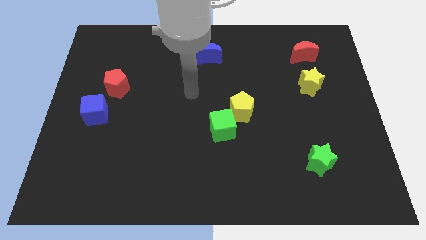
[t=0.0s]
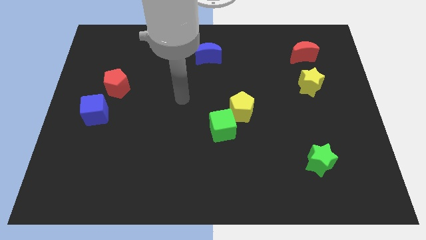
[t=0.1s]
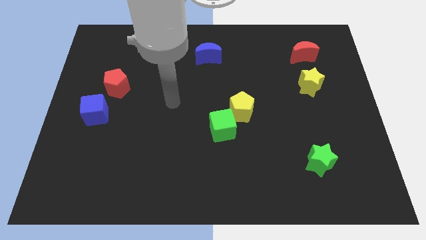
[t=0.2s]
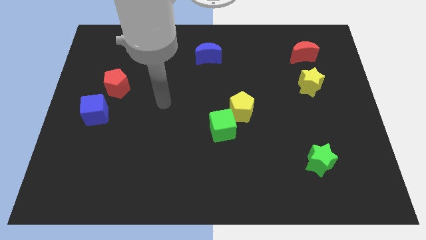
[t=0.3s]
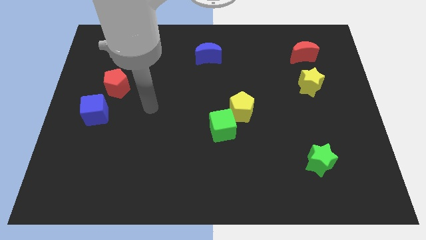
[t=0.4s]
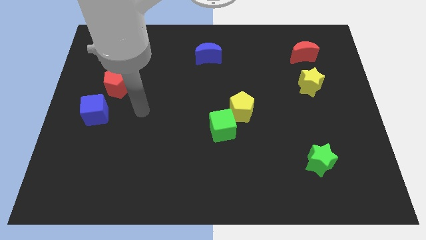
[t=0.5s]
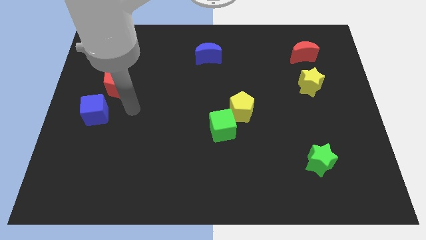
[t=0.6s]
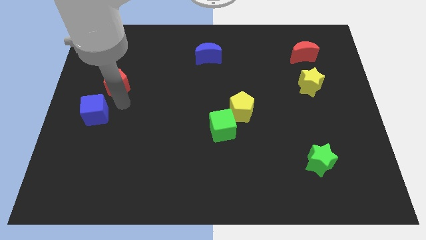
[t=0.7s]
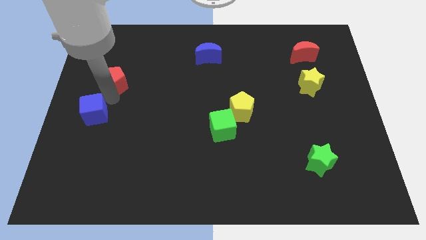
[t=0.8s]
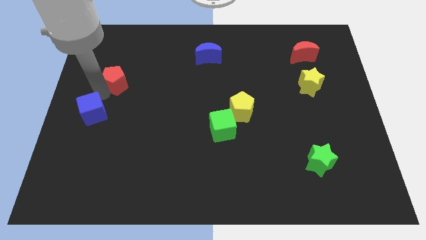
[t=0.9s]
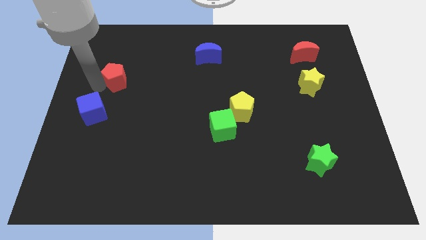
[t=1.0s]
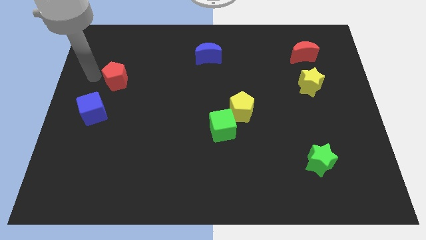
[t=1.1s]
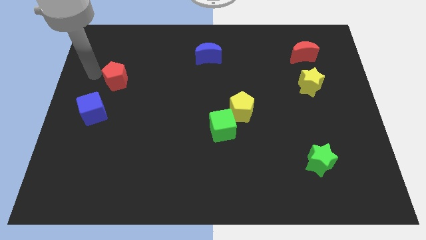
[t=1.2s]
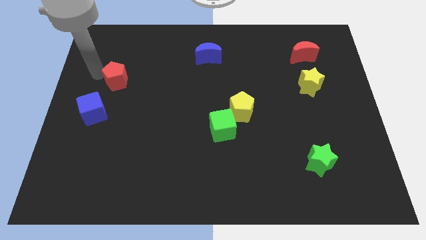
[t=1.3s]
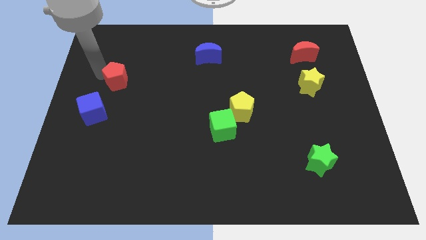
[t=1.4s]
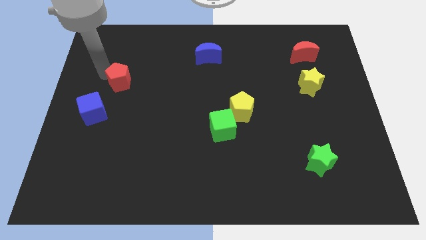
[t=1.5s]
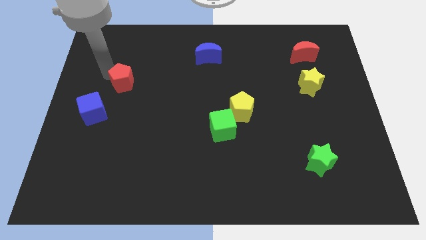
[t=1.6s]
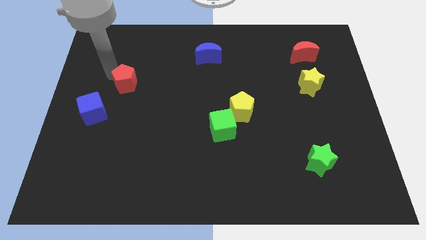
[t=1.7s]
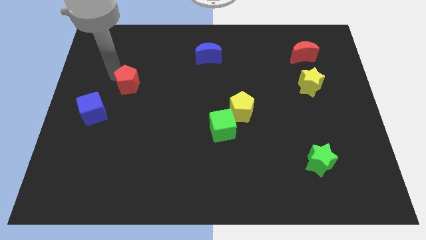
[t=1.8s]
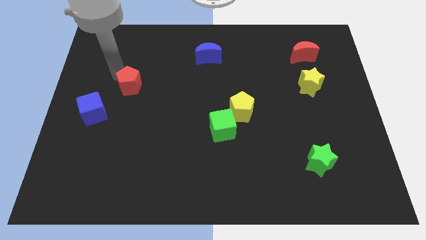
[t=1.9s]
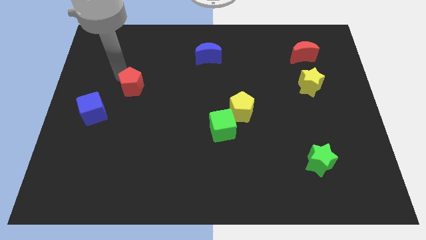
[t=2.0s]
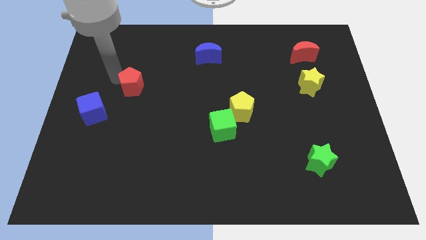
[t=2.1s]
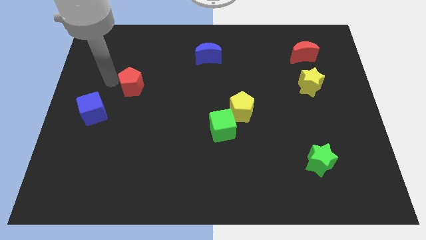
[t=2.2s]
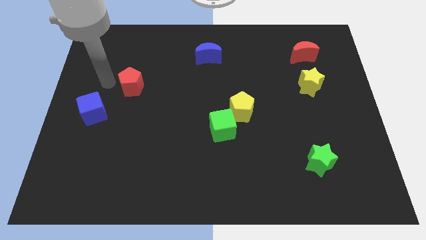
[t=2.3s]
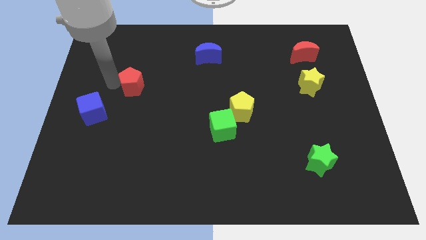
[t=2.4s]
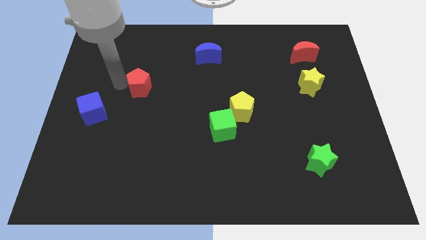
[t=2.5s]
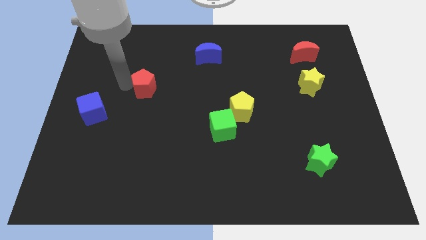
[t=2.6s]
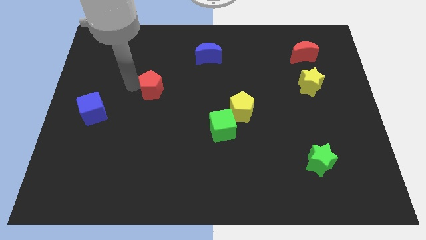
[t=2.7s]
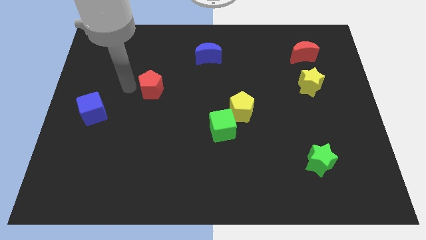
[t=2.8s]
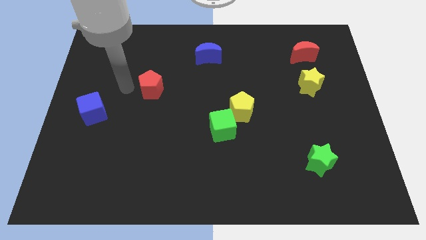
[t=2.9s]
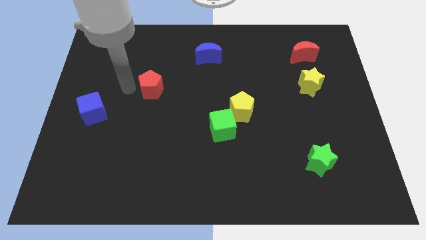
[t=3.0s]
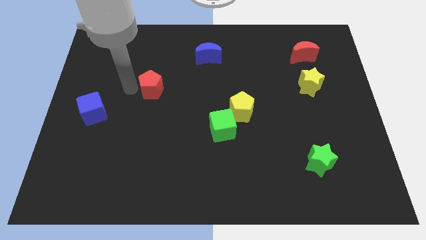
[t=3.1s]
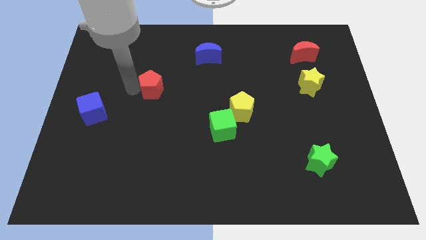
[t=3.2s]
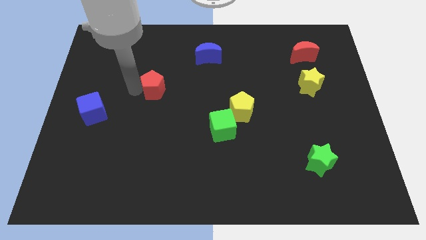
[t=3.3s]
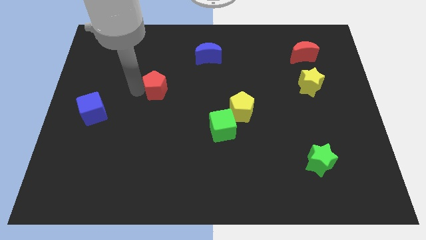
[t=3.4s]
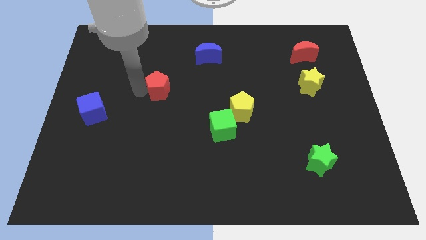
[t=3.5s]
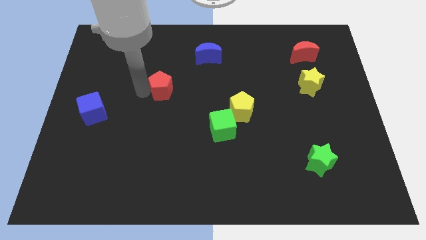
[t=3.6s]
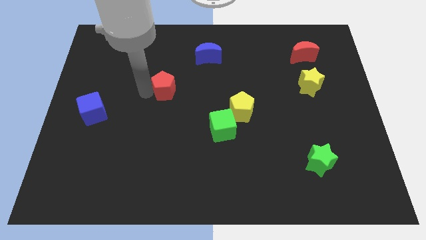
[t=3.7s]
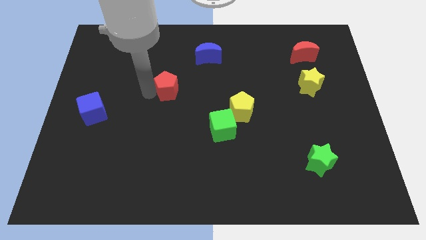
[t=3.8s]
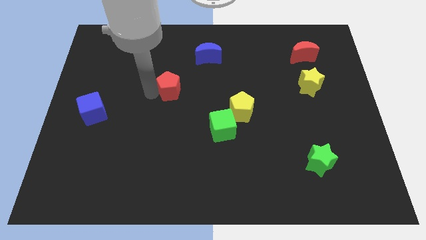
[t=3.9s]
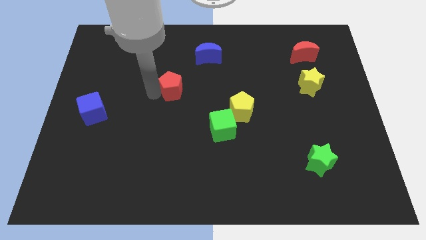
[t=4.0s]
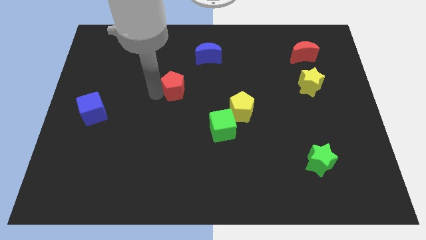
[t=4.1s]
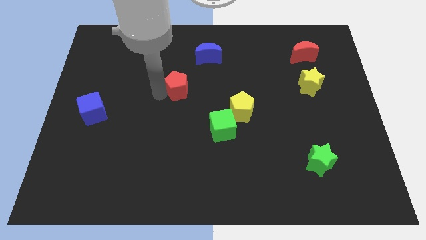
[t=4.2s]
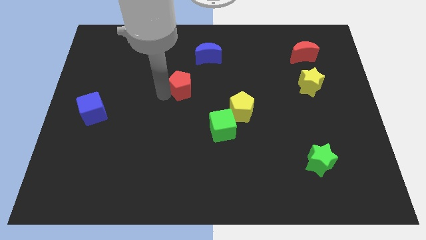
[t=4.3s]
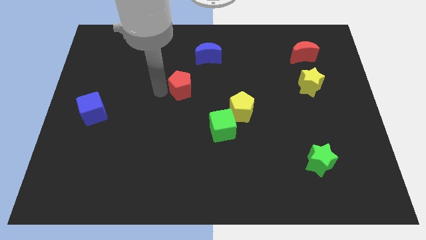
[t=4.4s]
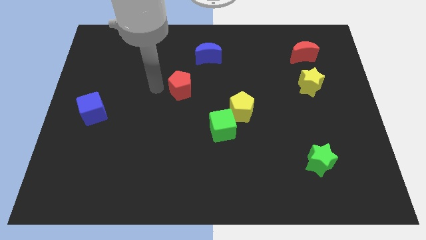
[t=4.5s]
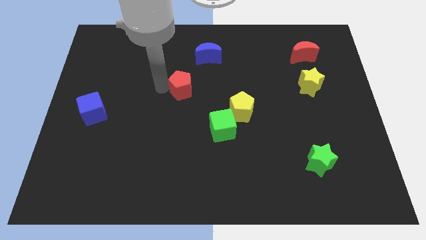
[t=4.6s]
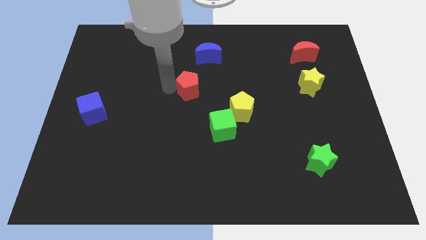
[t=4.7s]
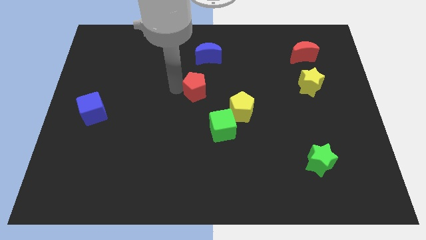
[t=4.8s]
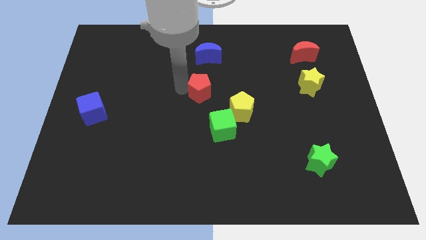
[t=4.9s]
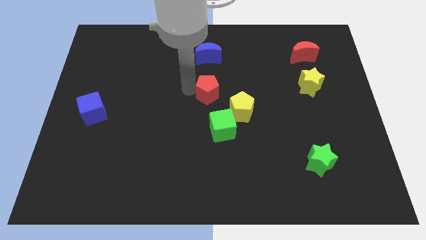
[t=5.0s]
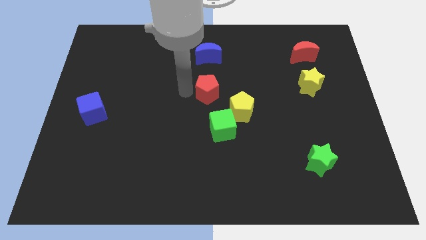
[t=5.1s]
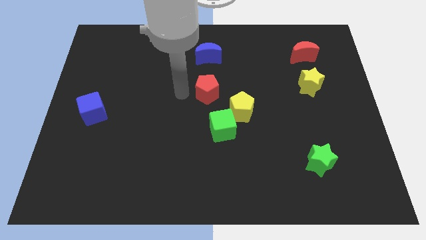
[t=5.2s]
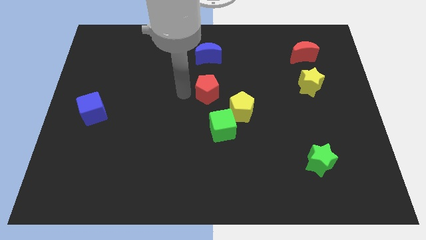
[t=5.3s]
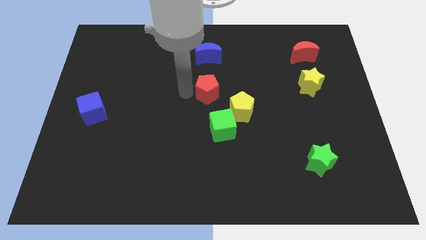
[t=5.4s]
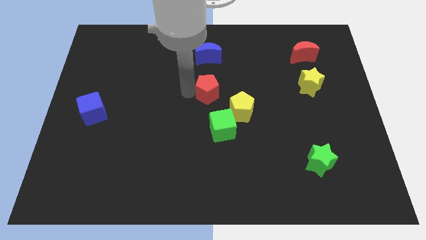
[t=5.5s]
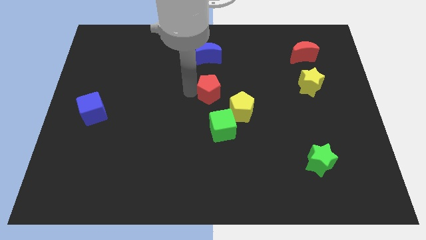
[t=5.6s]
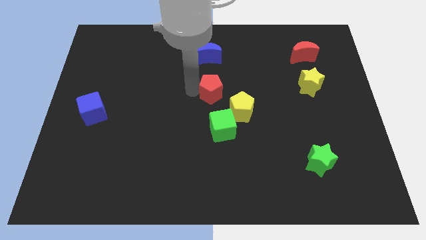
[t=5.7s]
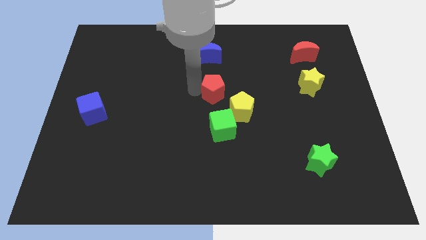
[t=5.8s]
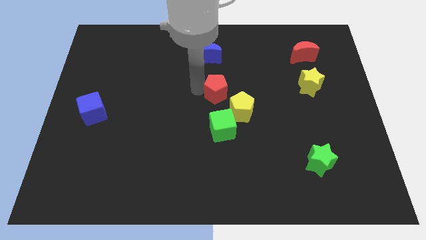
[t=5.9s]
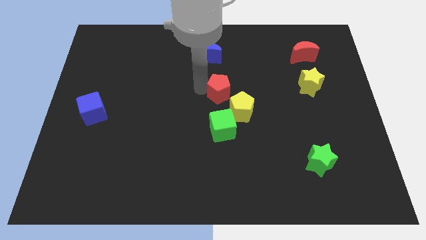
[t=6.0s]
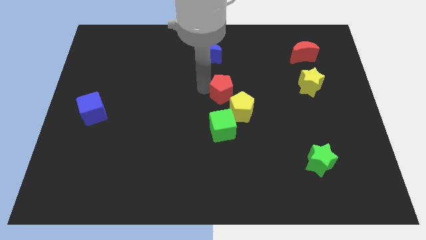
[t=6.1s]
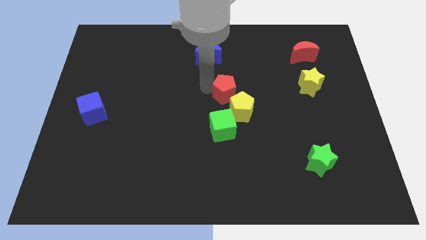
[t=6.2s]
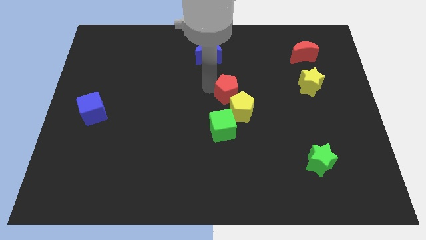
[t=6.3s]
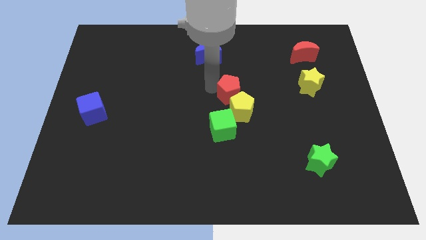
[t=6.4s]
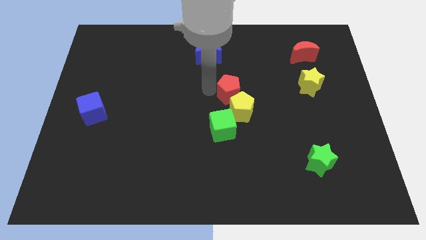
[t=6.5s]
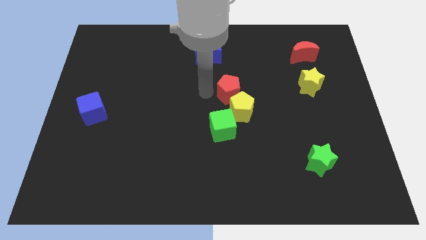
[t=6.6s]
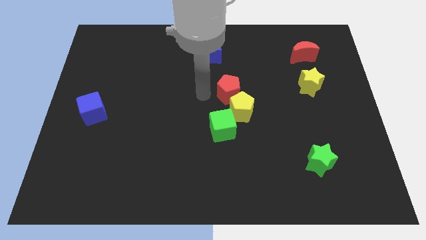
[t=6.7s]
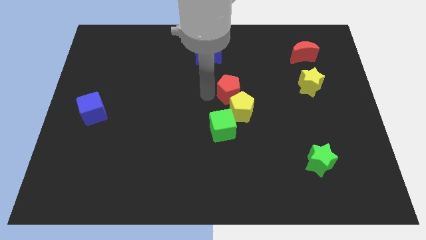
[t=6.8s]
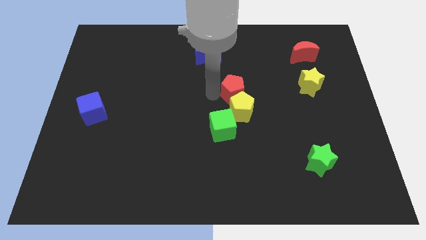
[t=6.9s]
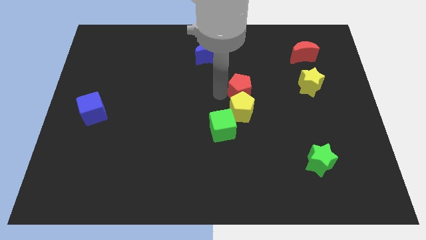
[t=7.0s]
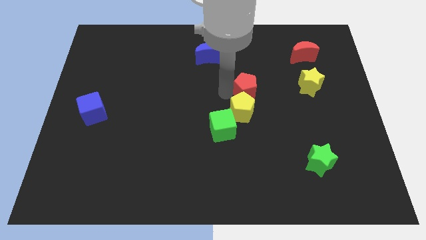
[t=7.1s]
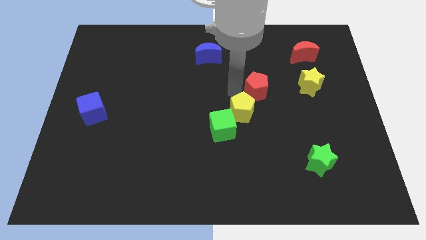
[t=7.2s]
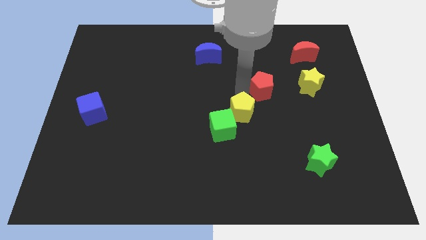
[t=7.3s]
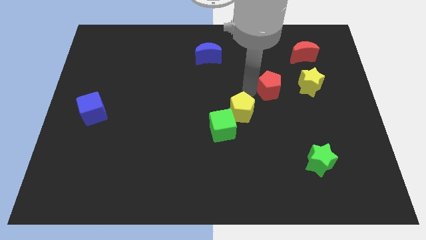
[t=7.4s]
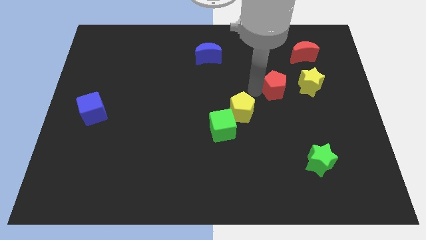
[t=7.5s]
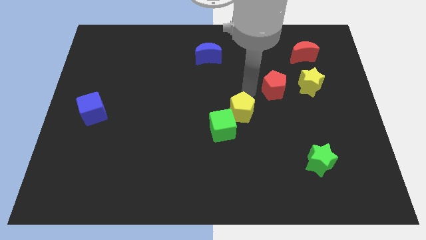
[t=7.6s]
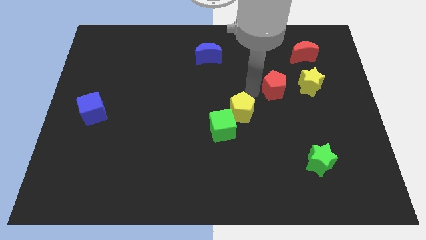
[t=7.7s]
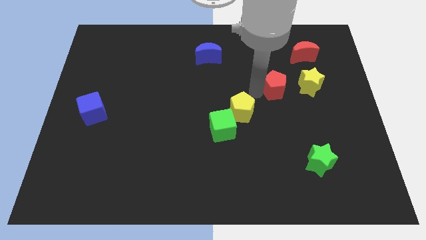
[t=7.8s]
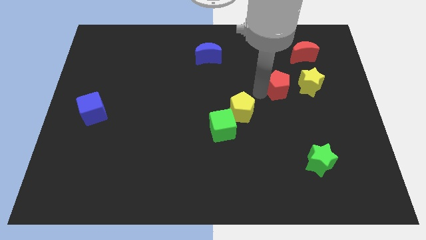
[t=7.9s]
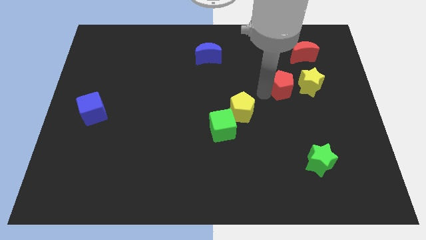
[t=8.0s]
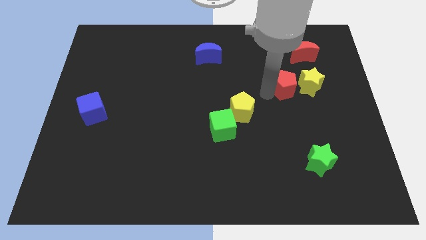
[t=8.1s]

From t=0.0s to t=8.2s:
push the red pentagon next to the yellow star
